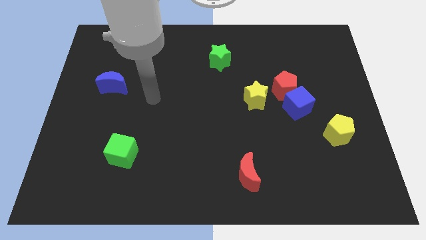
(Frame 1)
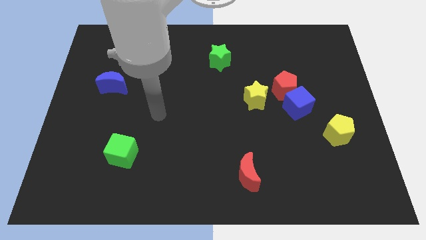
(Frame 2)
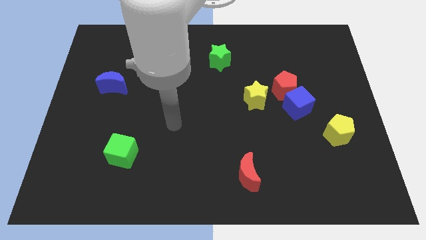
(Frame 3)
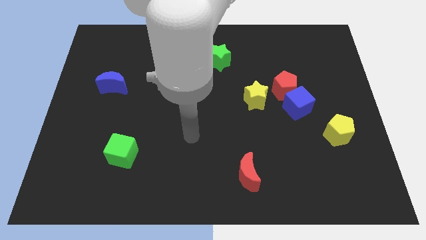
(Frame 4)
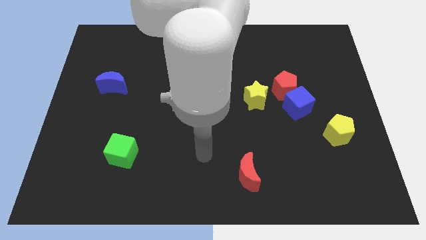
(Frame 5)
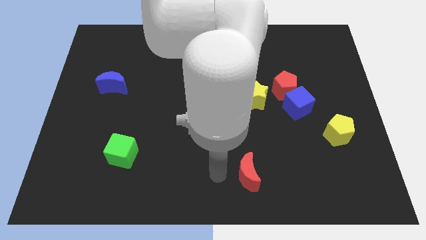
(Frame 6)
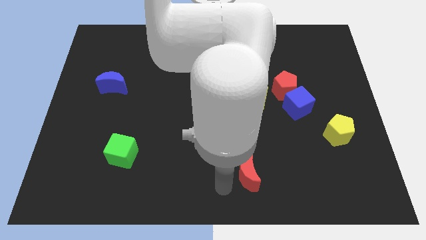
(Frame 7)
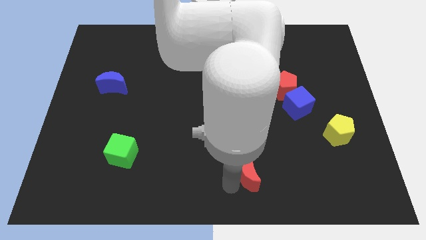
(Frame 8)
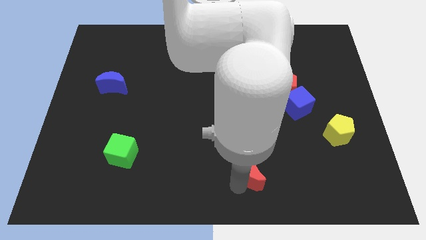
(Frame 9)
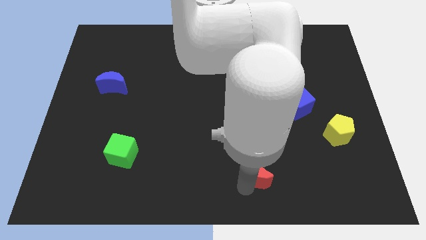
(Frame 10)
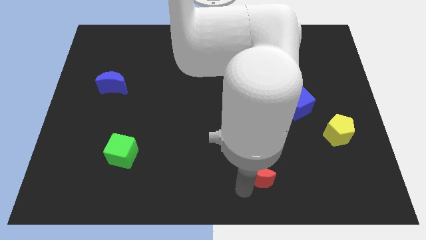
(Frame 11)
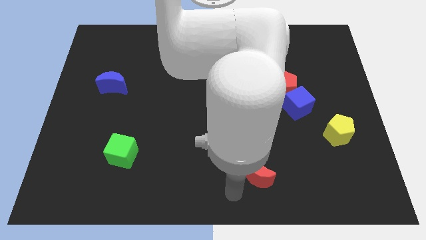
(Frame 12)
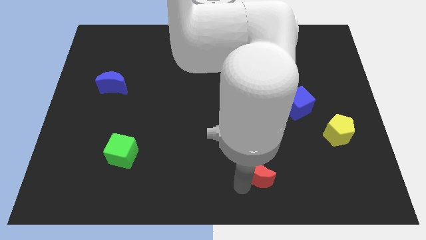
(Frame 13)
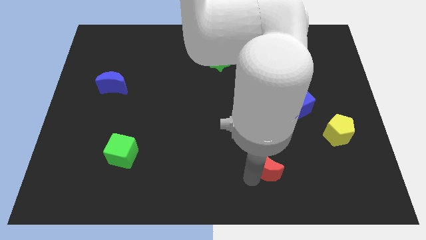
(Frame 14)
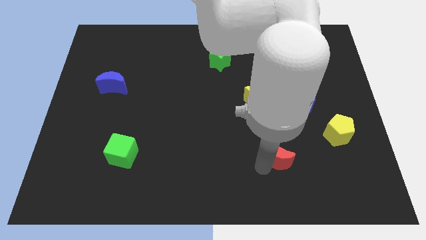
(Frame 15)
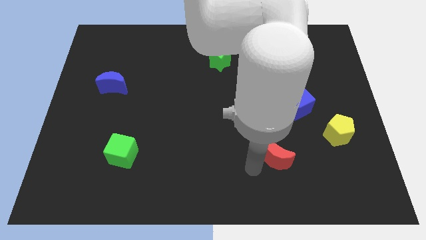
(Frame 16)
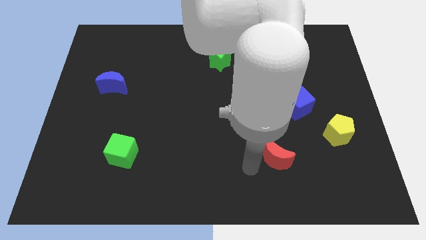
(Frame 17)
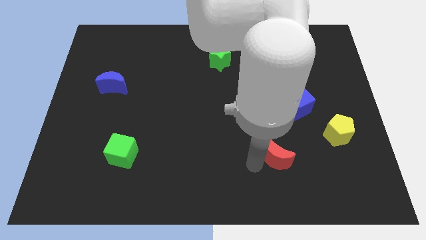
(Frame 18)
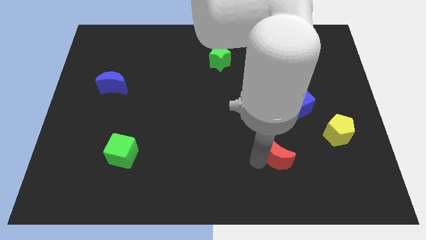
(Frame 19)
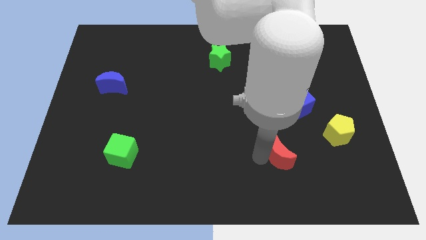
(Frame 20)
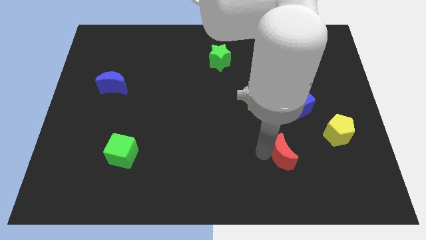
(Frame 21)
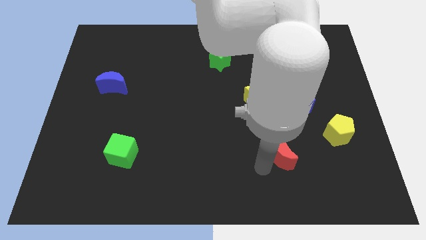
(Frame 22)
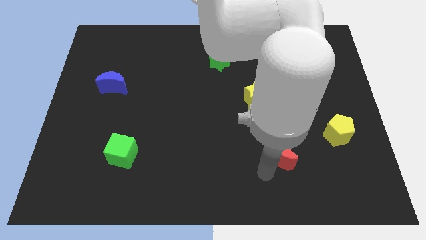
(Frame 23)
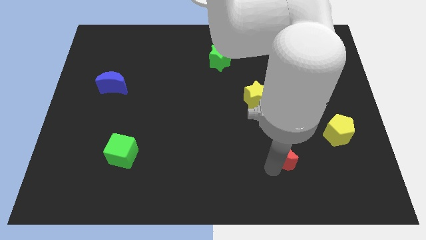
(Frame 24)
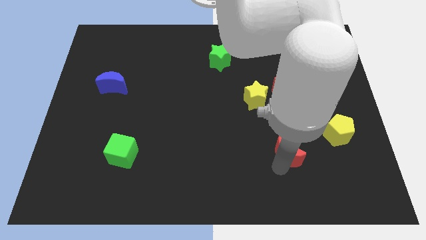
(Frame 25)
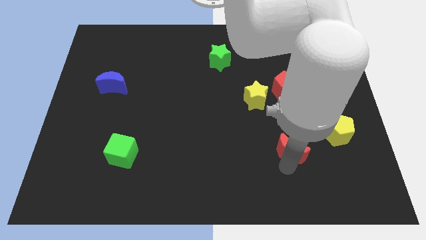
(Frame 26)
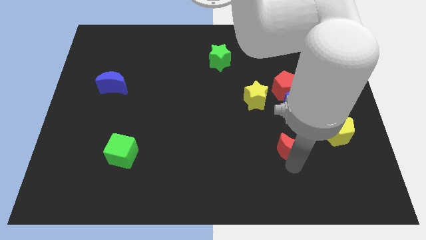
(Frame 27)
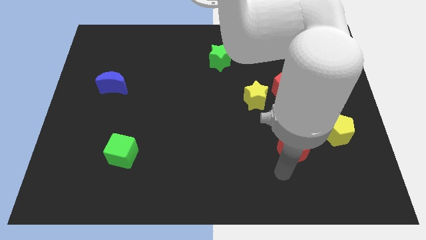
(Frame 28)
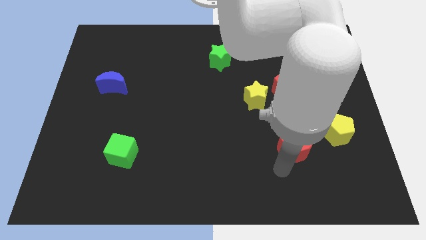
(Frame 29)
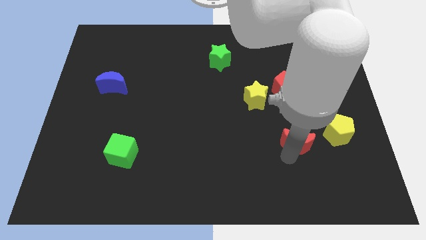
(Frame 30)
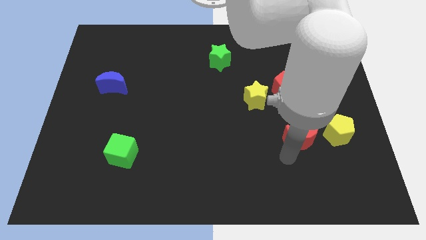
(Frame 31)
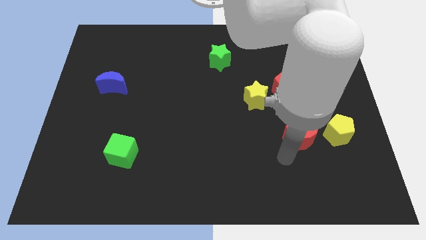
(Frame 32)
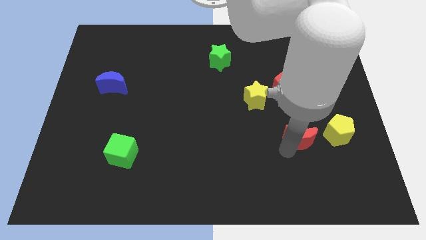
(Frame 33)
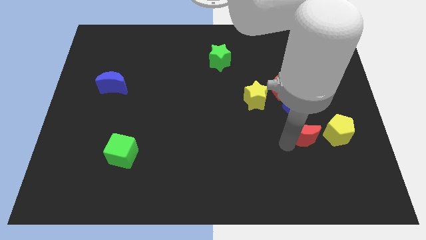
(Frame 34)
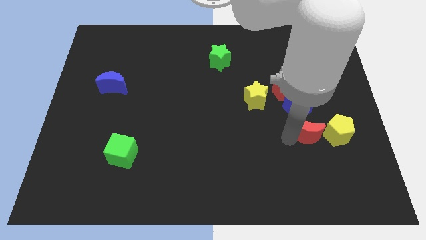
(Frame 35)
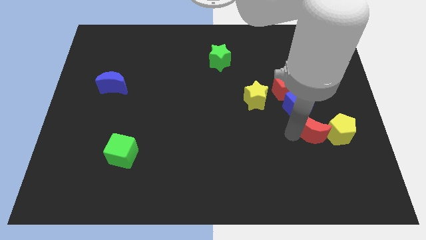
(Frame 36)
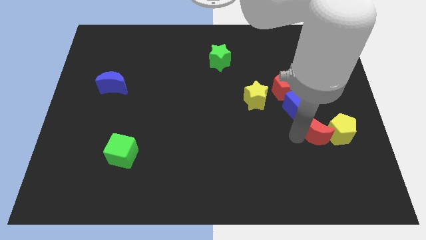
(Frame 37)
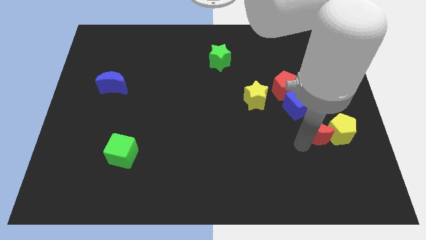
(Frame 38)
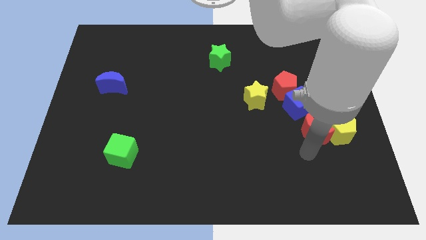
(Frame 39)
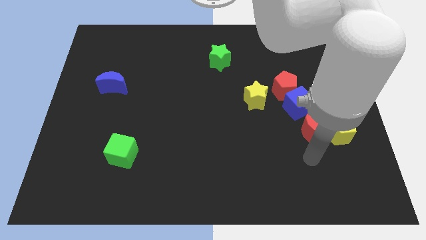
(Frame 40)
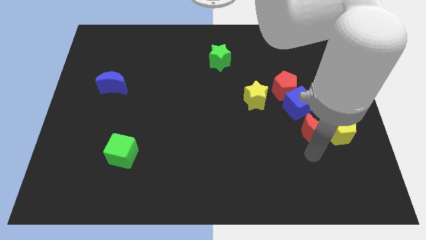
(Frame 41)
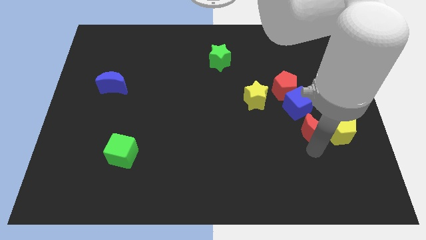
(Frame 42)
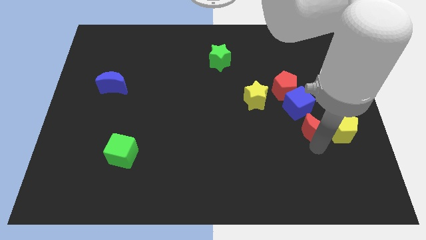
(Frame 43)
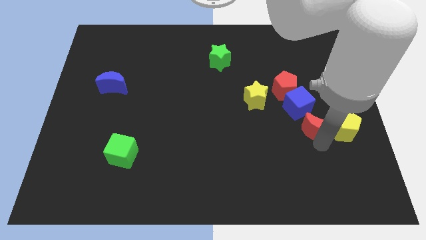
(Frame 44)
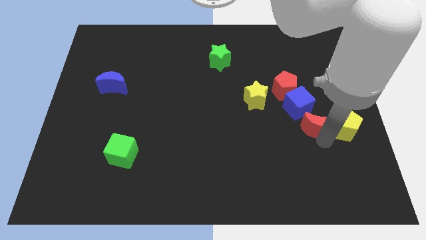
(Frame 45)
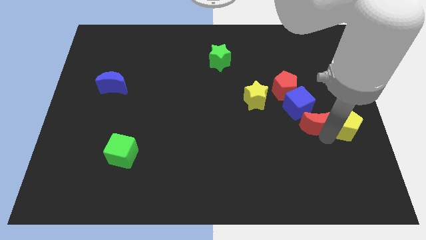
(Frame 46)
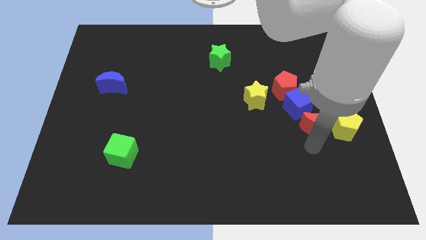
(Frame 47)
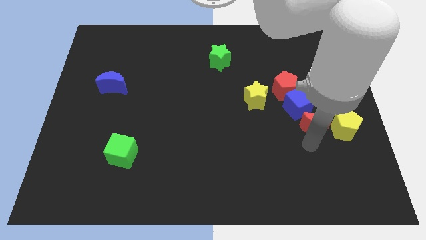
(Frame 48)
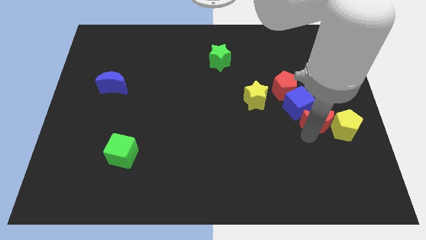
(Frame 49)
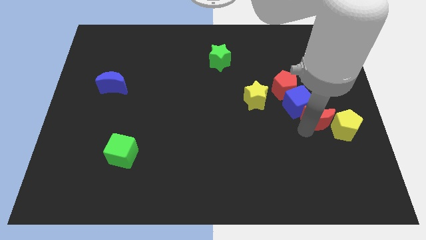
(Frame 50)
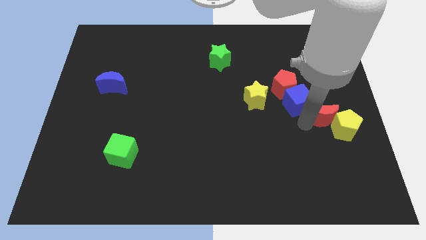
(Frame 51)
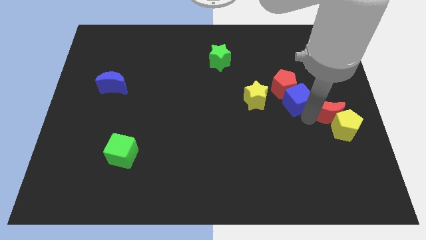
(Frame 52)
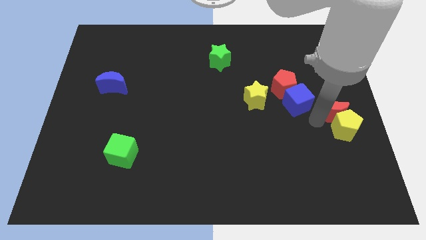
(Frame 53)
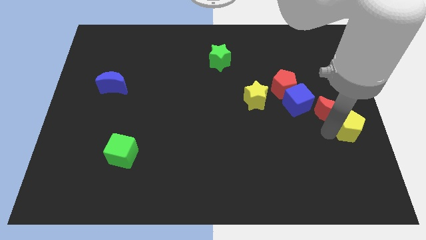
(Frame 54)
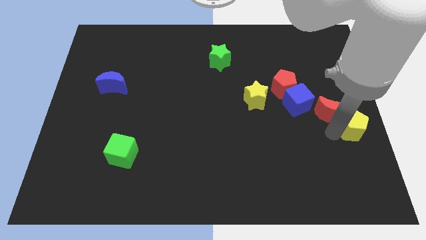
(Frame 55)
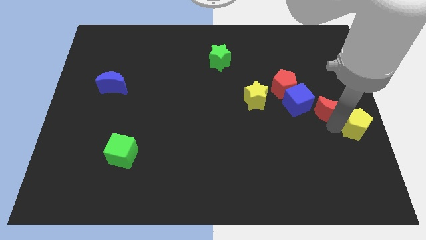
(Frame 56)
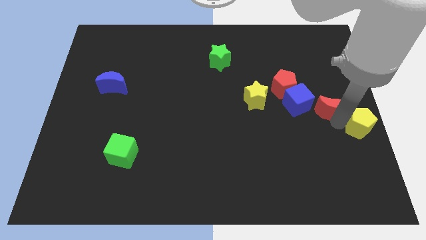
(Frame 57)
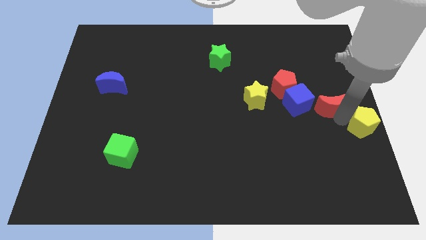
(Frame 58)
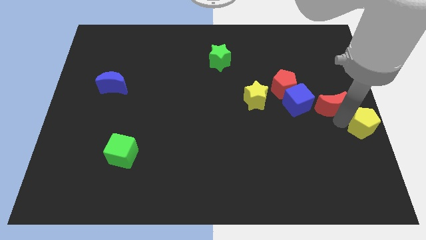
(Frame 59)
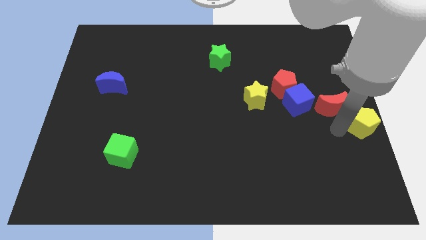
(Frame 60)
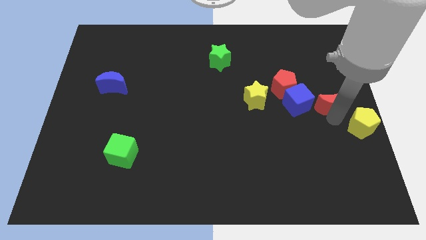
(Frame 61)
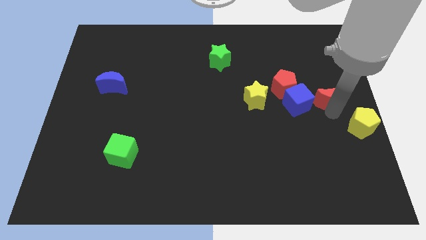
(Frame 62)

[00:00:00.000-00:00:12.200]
slide the red moon right of the red pentagon
